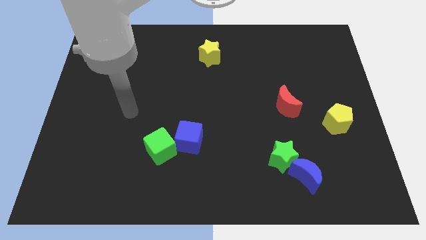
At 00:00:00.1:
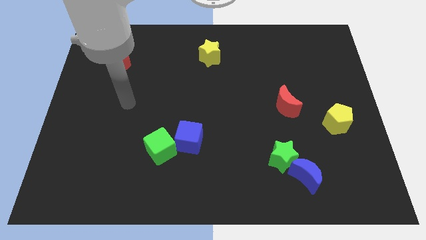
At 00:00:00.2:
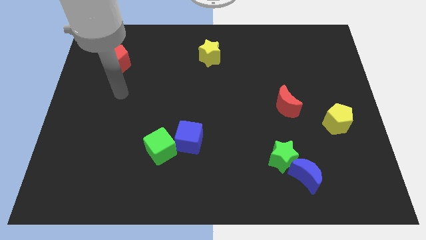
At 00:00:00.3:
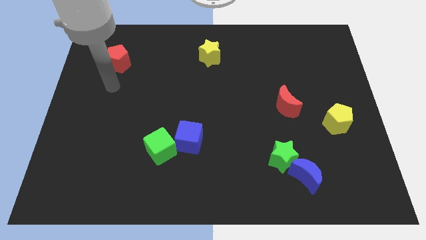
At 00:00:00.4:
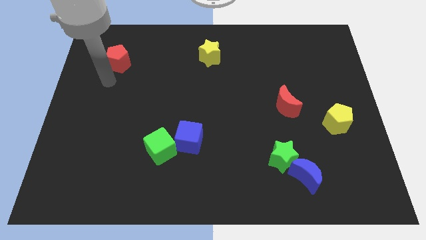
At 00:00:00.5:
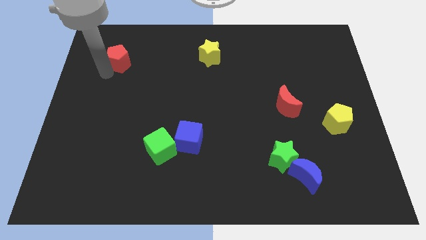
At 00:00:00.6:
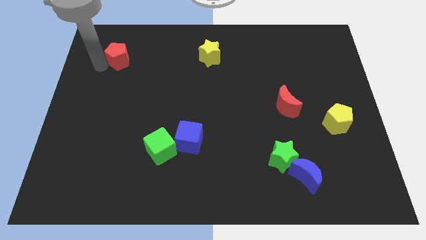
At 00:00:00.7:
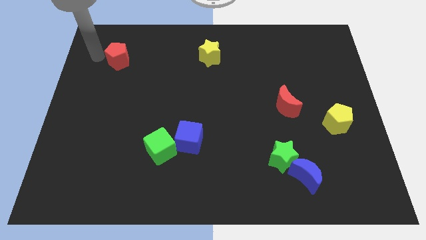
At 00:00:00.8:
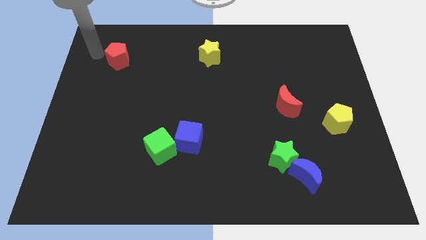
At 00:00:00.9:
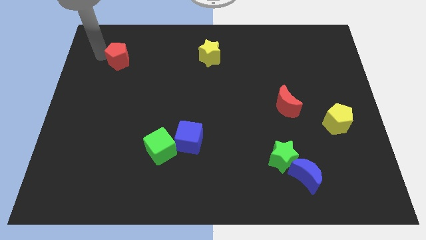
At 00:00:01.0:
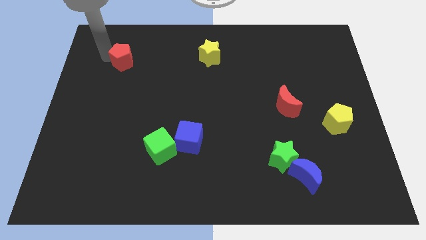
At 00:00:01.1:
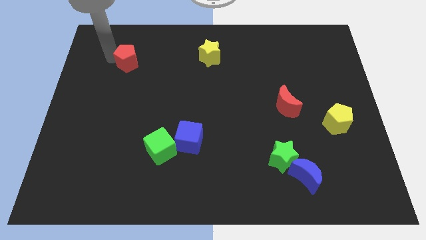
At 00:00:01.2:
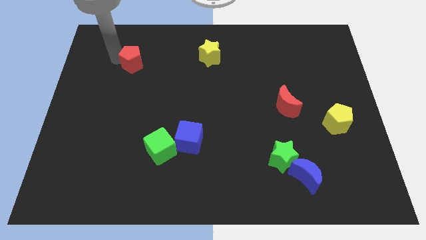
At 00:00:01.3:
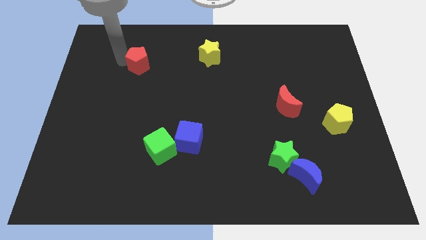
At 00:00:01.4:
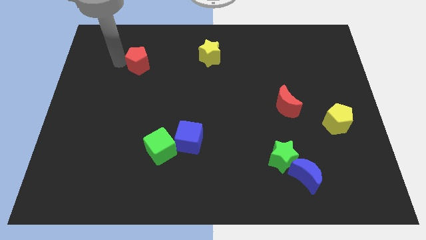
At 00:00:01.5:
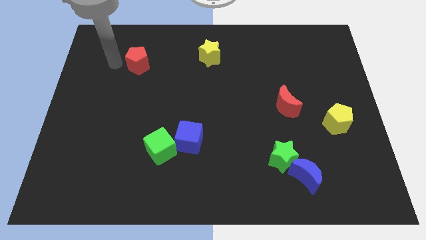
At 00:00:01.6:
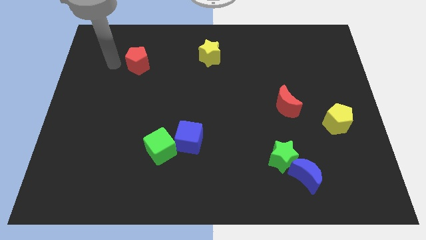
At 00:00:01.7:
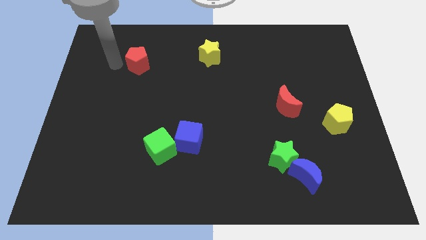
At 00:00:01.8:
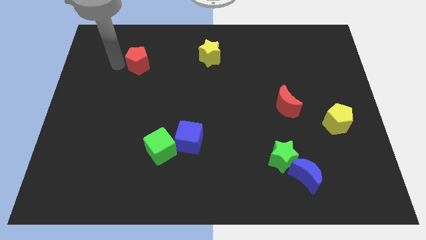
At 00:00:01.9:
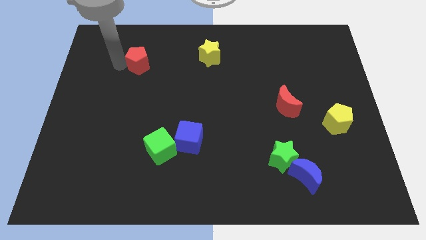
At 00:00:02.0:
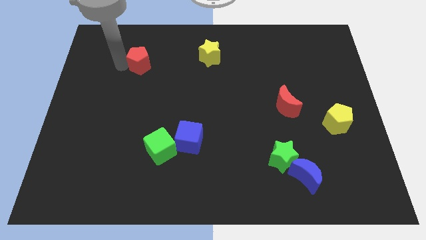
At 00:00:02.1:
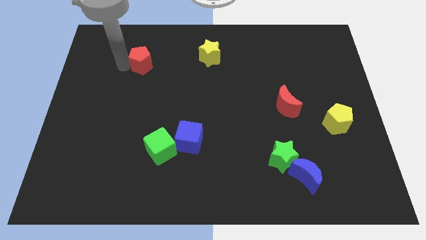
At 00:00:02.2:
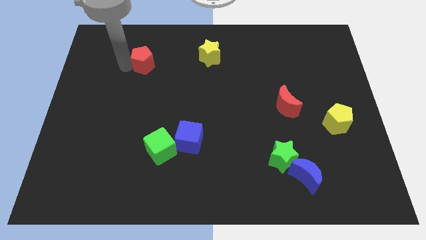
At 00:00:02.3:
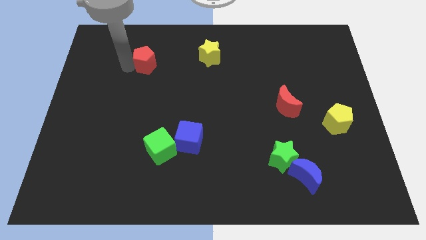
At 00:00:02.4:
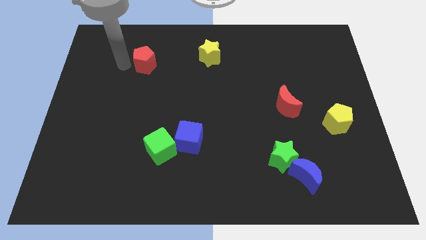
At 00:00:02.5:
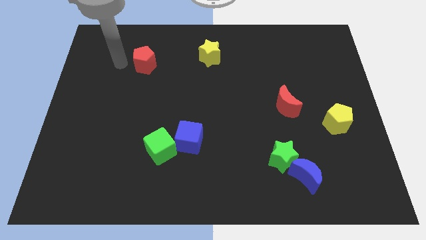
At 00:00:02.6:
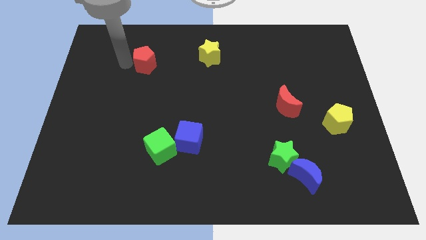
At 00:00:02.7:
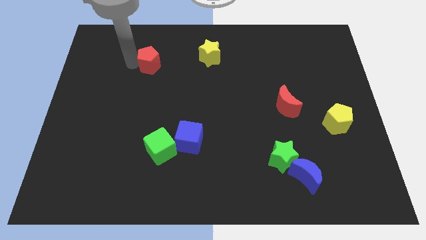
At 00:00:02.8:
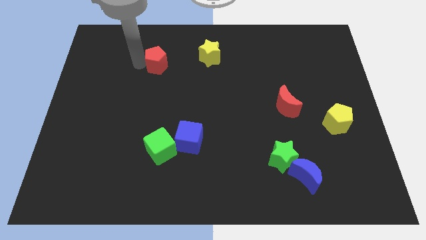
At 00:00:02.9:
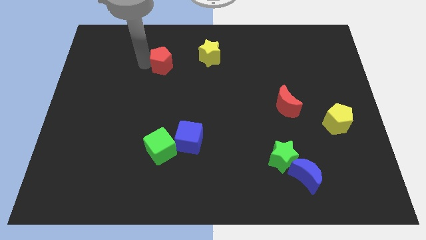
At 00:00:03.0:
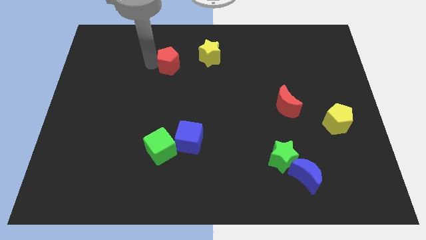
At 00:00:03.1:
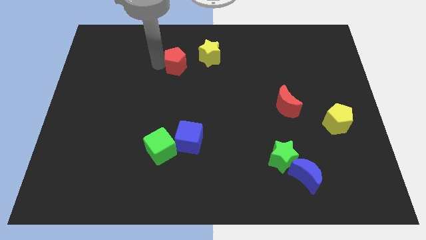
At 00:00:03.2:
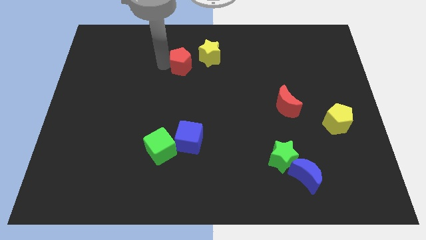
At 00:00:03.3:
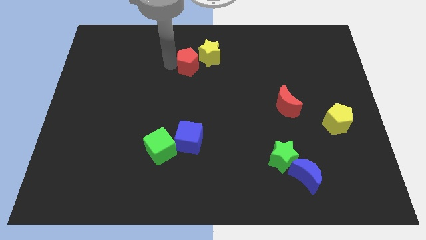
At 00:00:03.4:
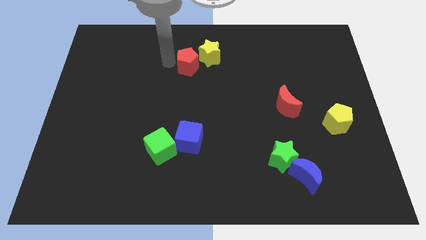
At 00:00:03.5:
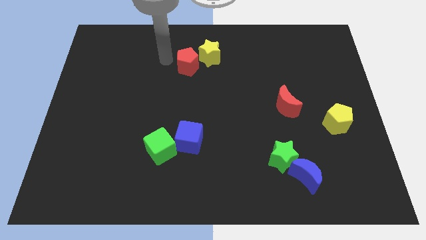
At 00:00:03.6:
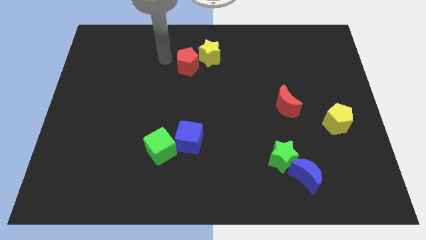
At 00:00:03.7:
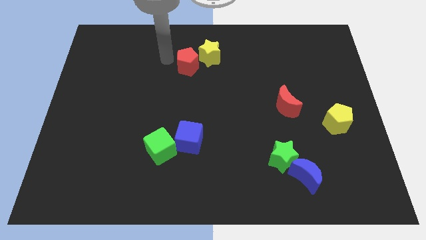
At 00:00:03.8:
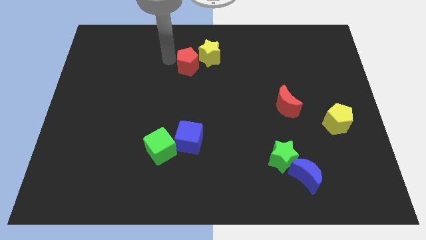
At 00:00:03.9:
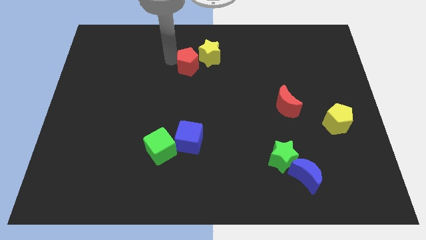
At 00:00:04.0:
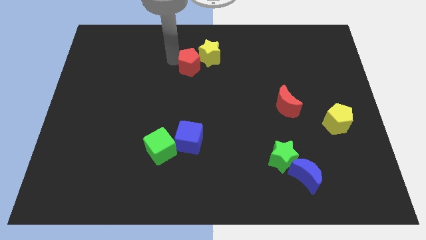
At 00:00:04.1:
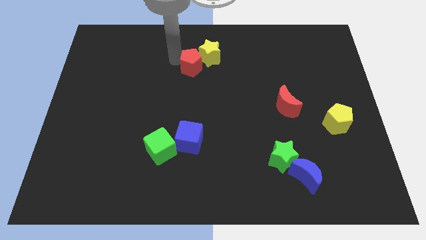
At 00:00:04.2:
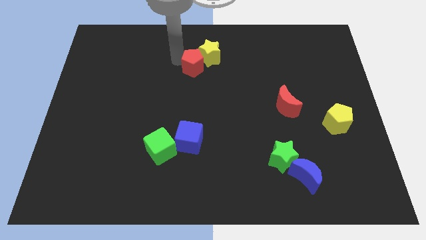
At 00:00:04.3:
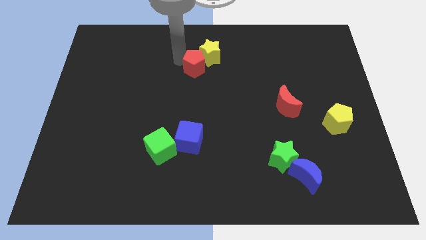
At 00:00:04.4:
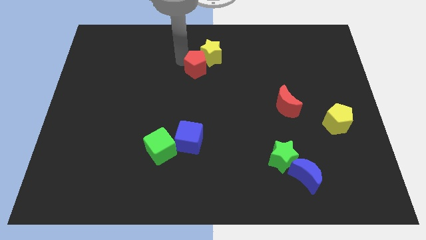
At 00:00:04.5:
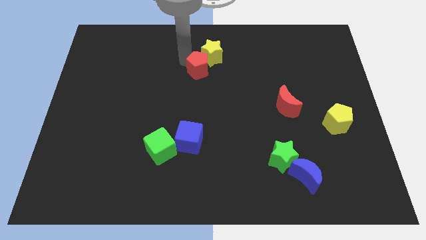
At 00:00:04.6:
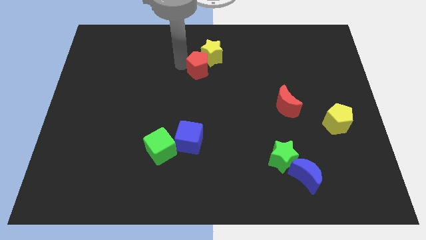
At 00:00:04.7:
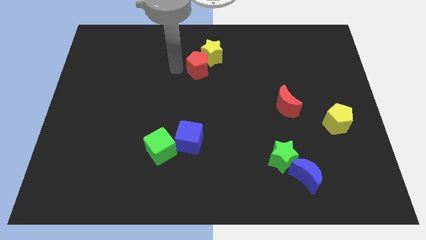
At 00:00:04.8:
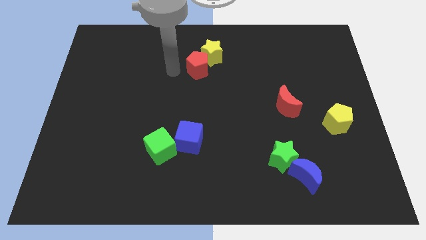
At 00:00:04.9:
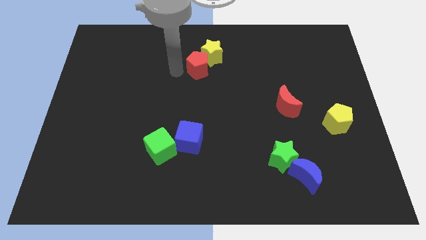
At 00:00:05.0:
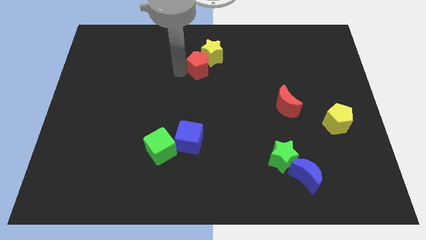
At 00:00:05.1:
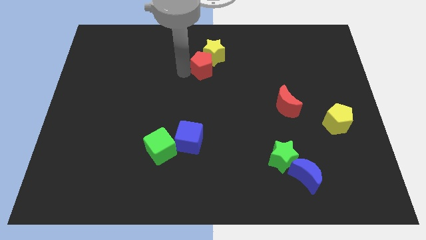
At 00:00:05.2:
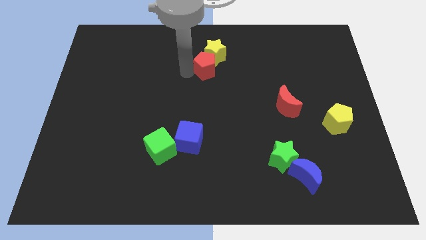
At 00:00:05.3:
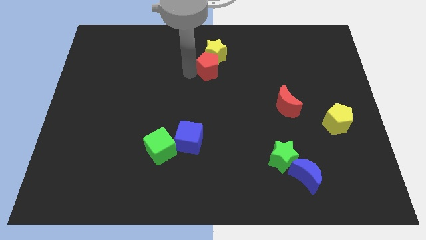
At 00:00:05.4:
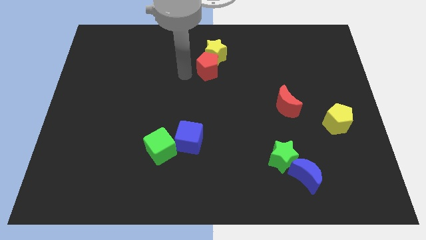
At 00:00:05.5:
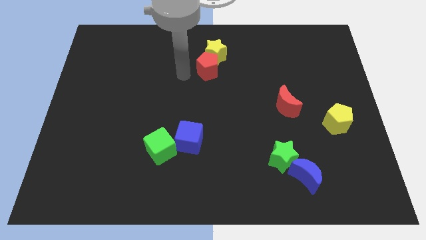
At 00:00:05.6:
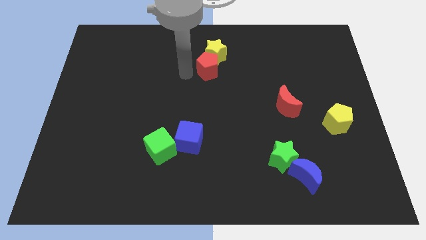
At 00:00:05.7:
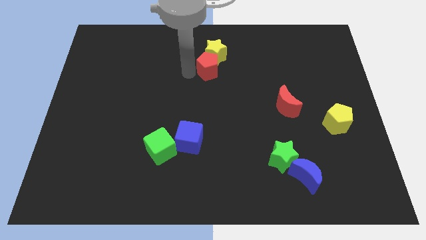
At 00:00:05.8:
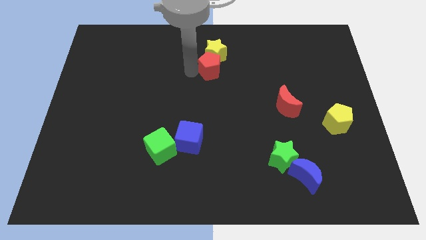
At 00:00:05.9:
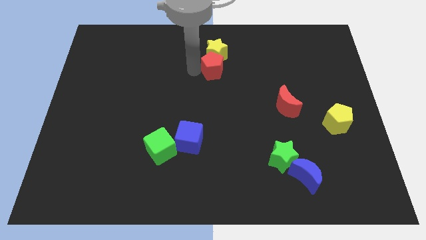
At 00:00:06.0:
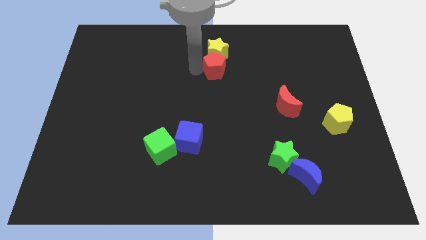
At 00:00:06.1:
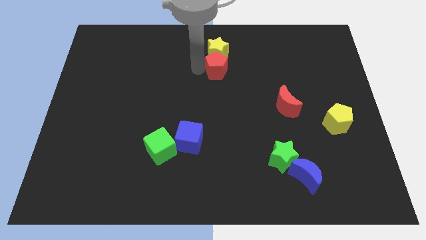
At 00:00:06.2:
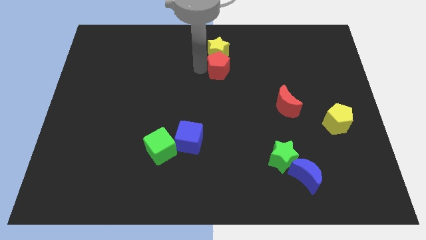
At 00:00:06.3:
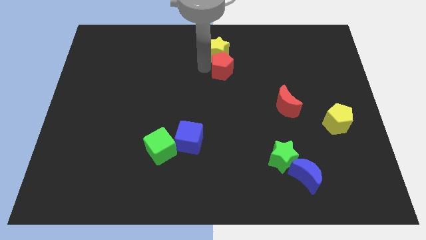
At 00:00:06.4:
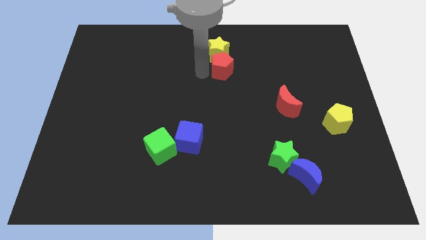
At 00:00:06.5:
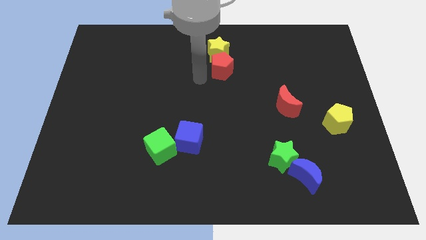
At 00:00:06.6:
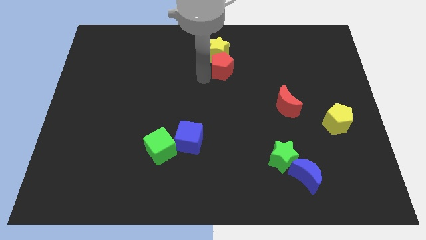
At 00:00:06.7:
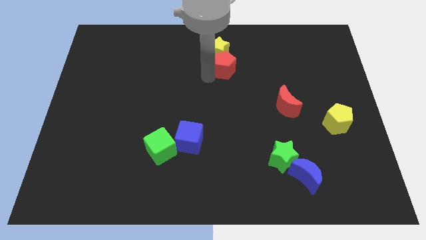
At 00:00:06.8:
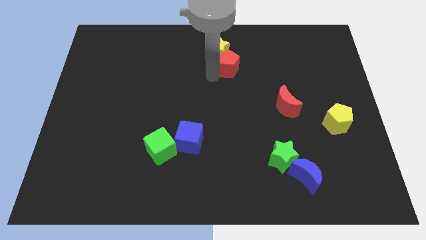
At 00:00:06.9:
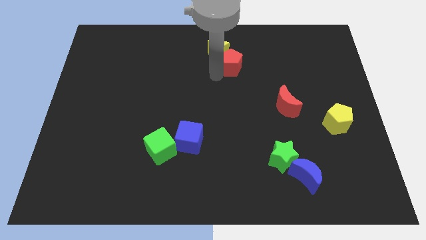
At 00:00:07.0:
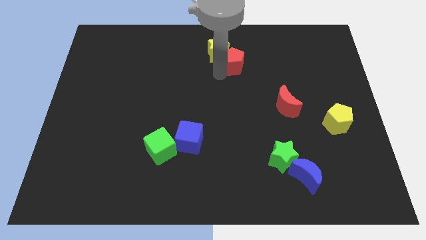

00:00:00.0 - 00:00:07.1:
slide the red pentagon right of the yellow star
